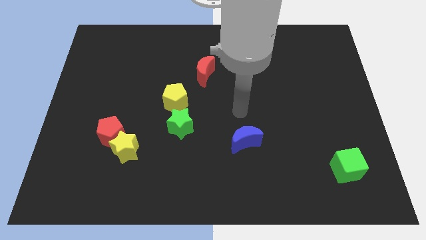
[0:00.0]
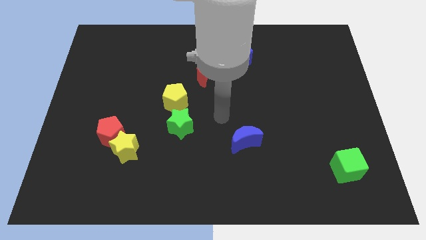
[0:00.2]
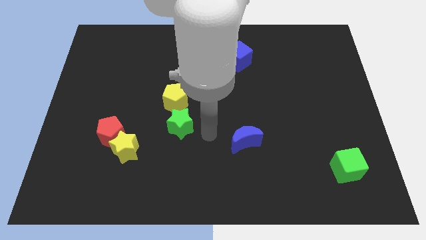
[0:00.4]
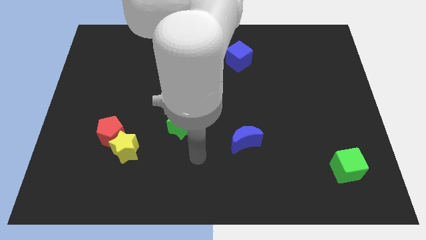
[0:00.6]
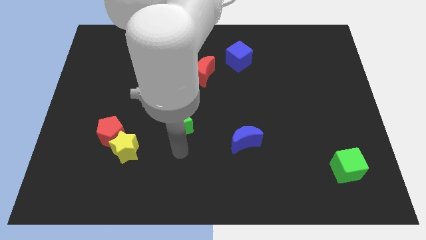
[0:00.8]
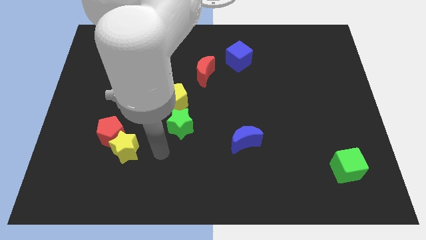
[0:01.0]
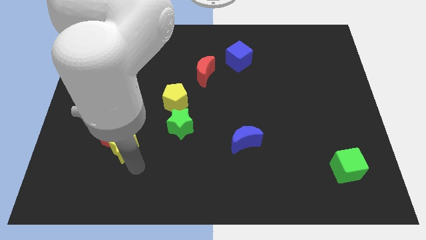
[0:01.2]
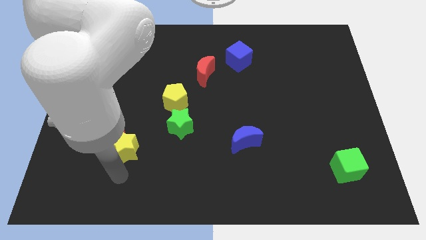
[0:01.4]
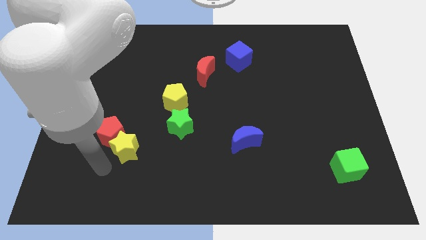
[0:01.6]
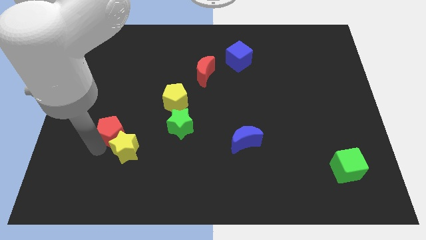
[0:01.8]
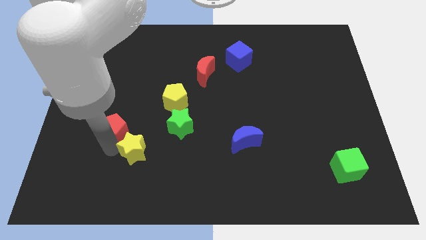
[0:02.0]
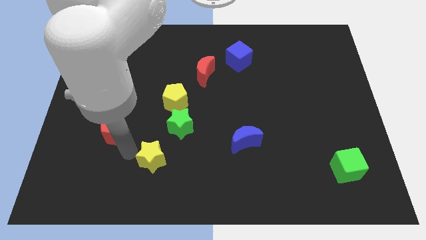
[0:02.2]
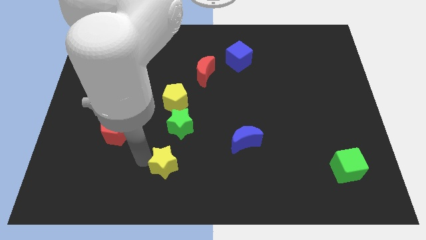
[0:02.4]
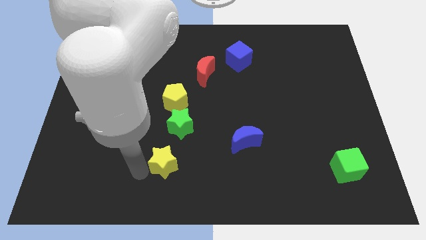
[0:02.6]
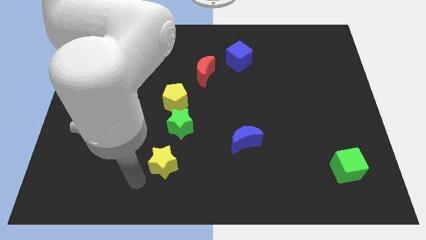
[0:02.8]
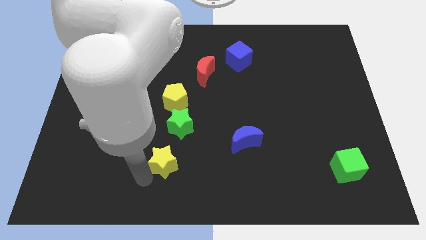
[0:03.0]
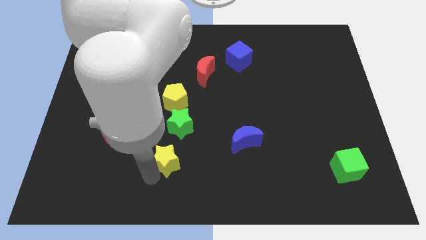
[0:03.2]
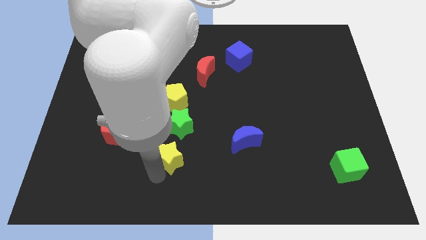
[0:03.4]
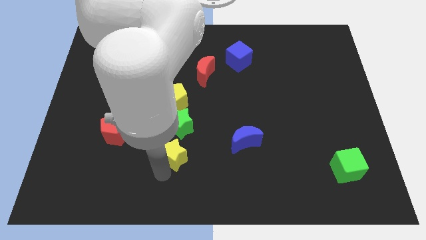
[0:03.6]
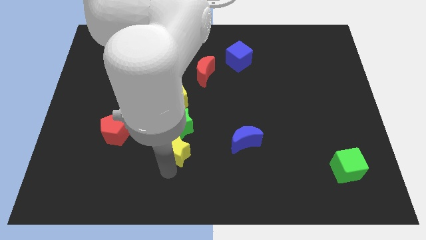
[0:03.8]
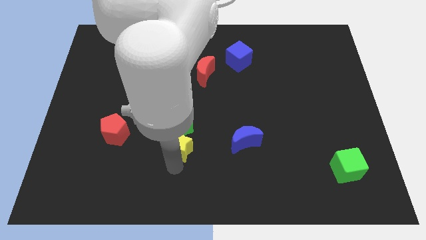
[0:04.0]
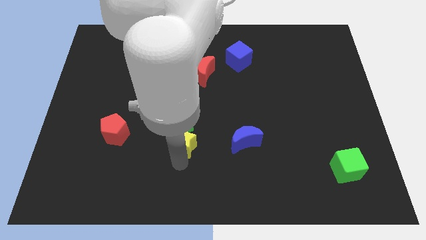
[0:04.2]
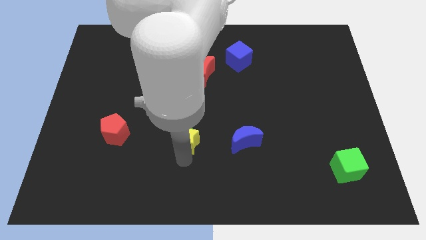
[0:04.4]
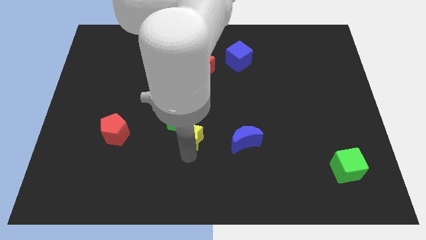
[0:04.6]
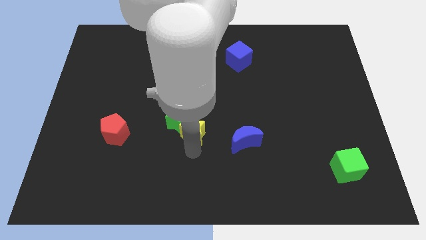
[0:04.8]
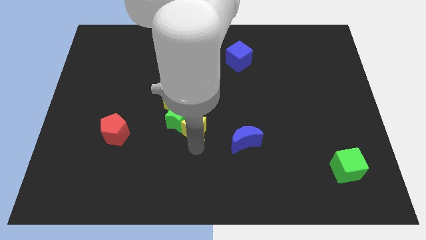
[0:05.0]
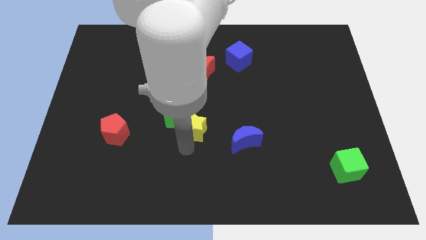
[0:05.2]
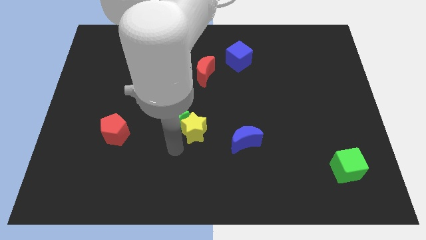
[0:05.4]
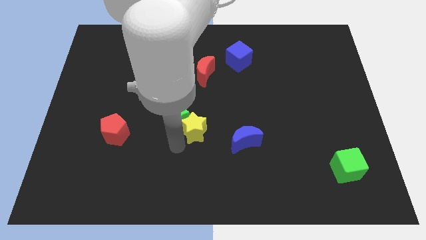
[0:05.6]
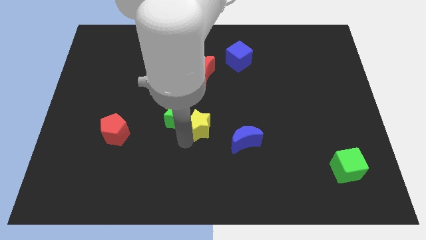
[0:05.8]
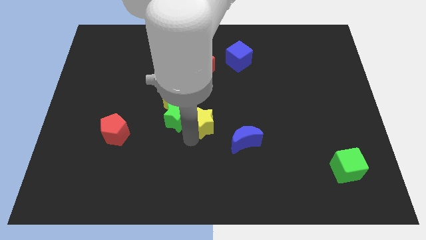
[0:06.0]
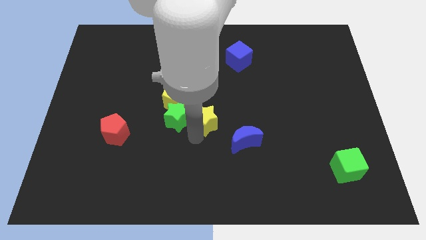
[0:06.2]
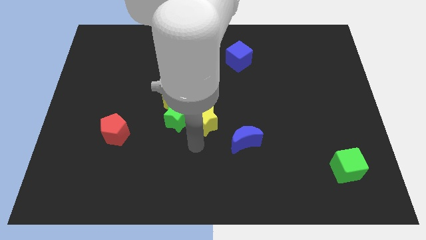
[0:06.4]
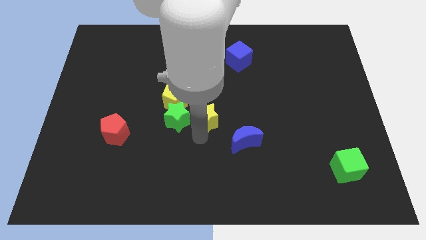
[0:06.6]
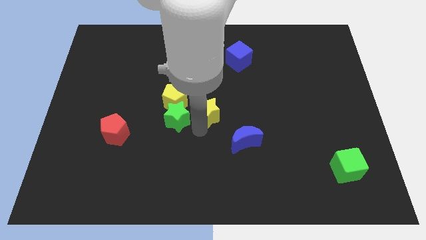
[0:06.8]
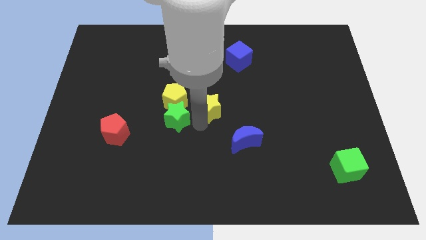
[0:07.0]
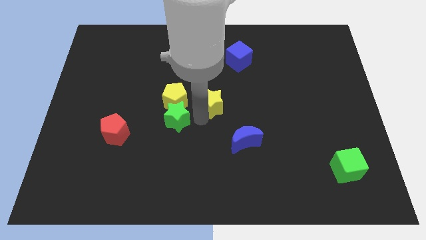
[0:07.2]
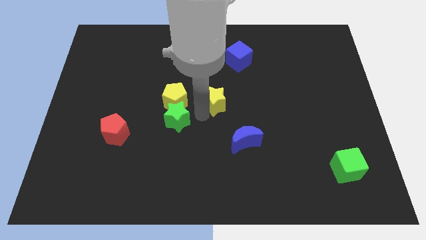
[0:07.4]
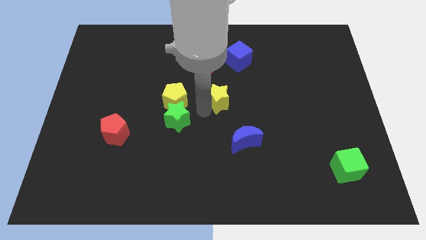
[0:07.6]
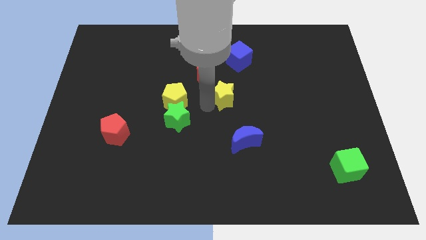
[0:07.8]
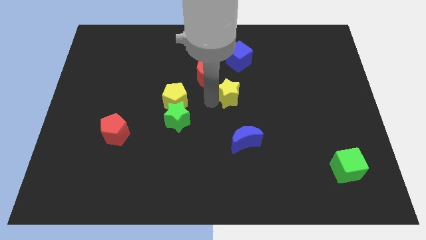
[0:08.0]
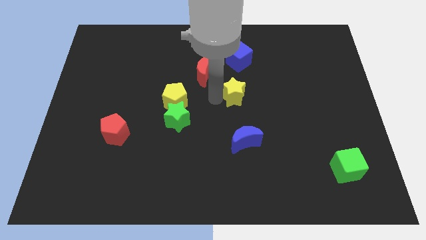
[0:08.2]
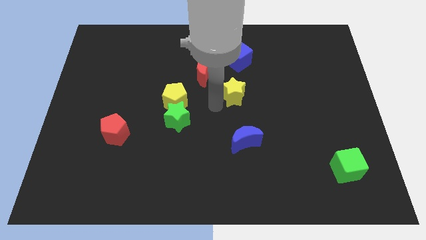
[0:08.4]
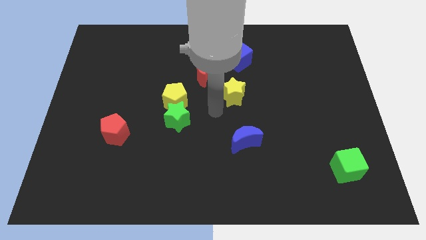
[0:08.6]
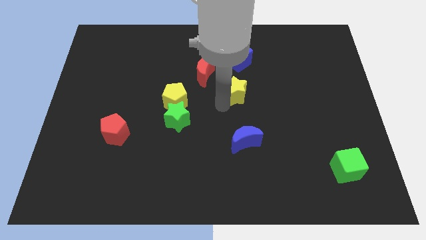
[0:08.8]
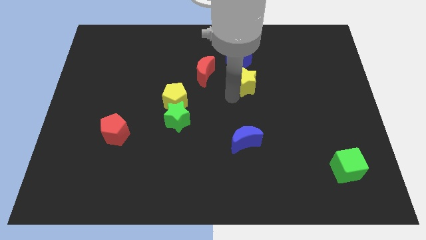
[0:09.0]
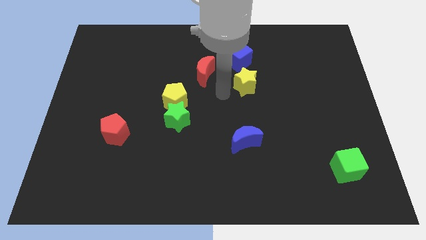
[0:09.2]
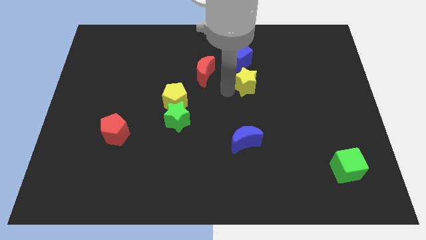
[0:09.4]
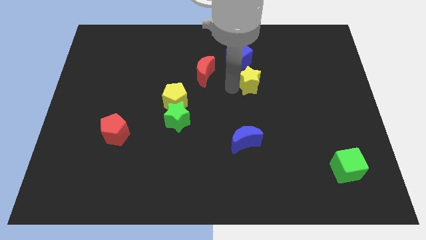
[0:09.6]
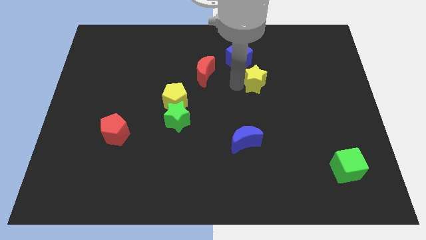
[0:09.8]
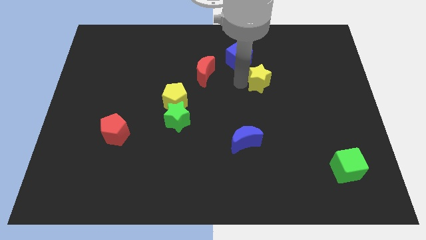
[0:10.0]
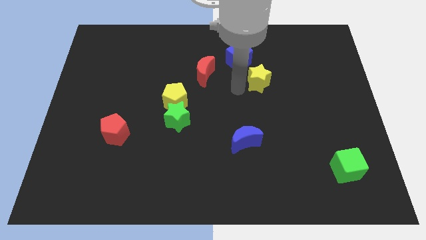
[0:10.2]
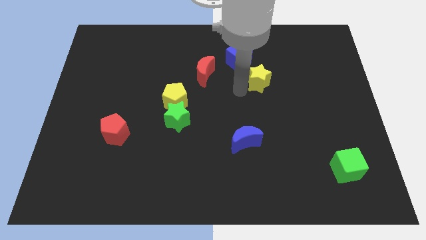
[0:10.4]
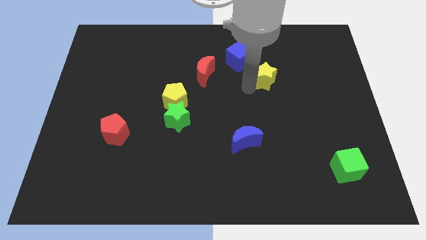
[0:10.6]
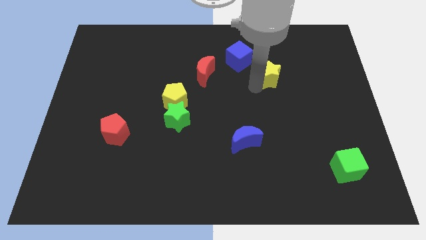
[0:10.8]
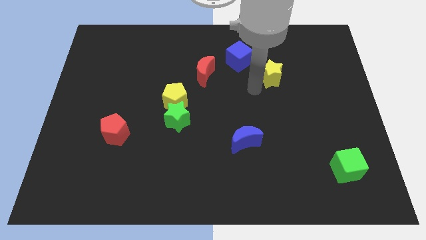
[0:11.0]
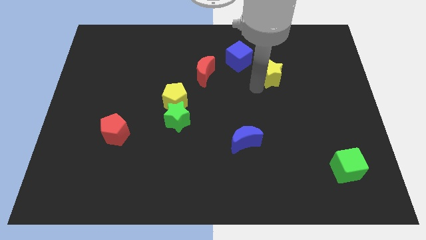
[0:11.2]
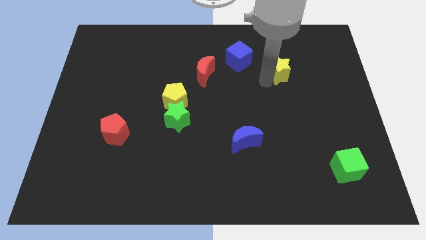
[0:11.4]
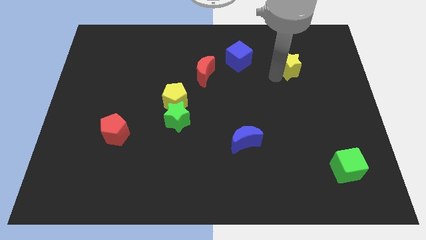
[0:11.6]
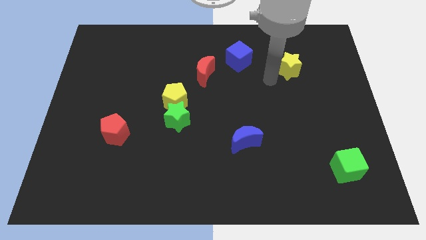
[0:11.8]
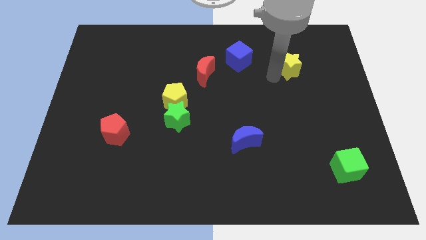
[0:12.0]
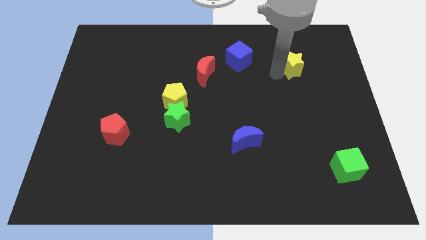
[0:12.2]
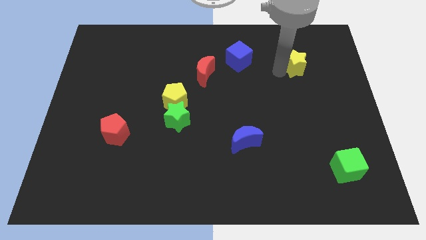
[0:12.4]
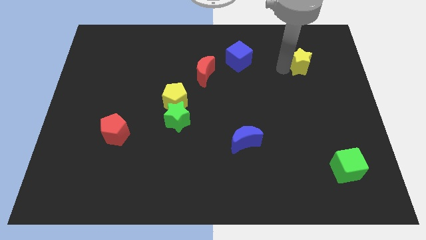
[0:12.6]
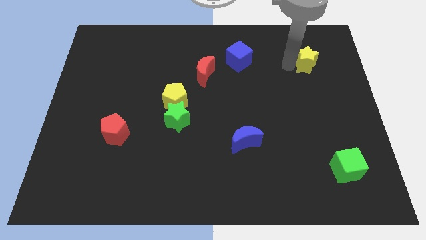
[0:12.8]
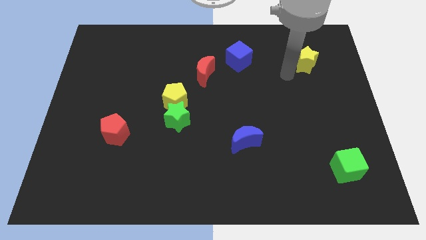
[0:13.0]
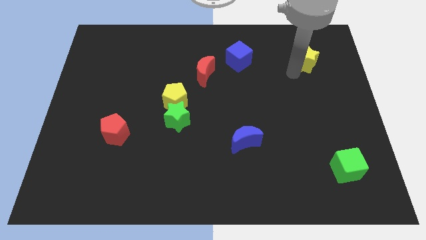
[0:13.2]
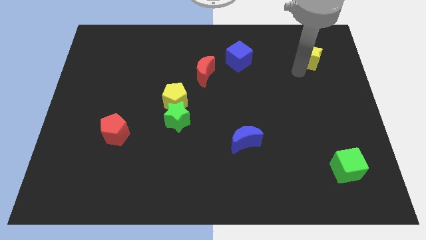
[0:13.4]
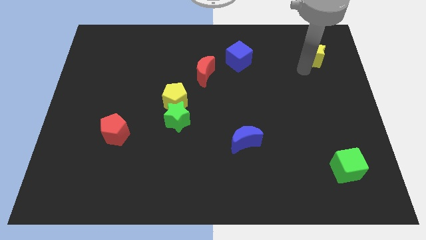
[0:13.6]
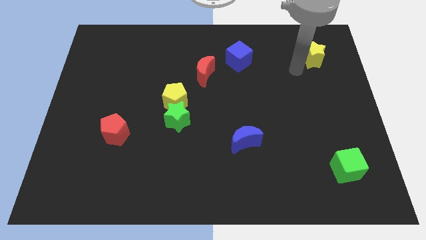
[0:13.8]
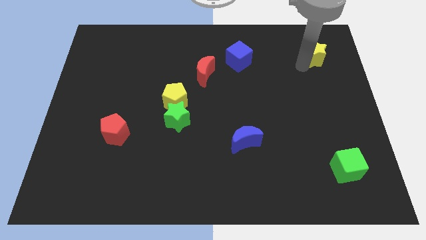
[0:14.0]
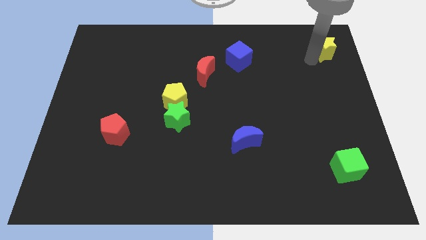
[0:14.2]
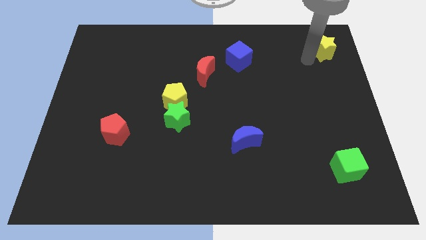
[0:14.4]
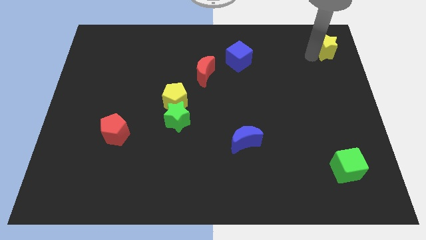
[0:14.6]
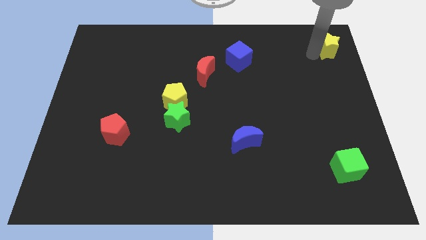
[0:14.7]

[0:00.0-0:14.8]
put the yellow star to the top right of the board
